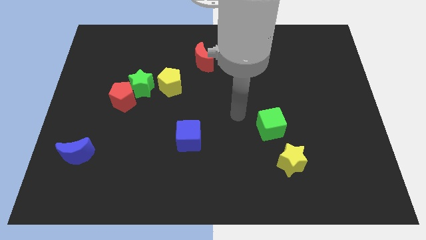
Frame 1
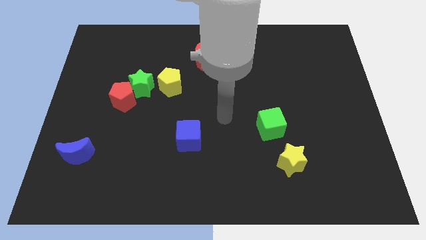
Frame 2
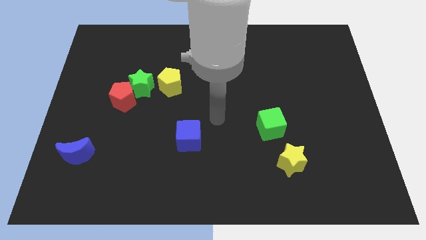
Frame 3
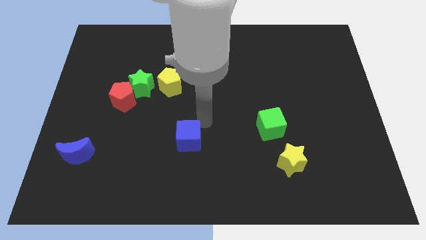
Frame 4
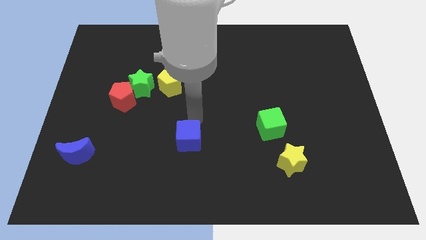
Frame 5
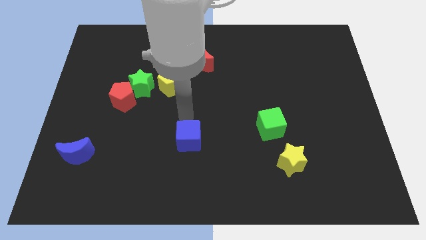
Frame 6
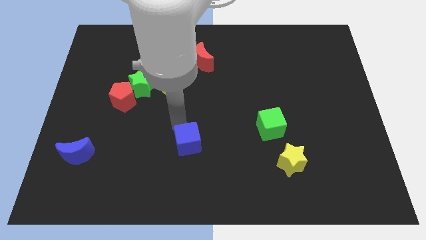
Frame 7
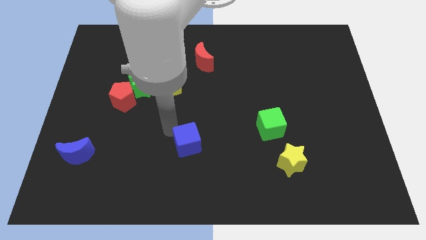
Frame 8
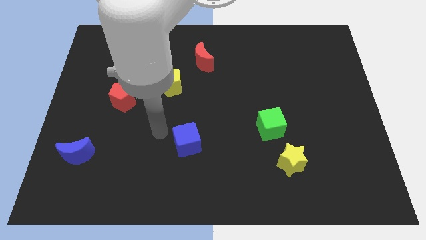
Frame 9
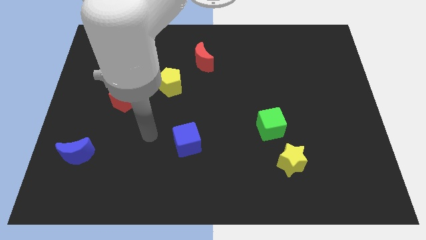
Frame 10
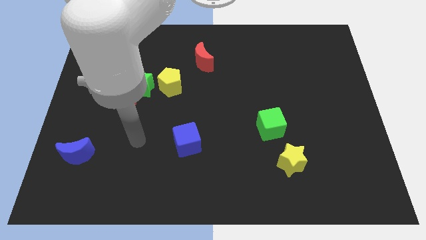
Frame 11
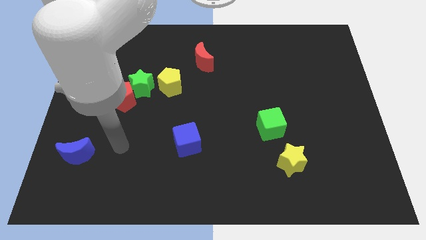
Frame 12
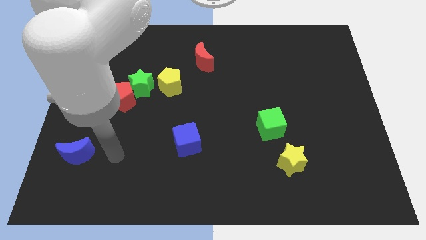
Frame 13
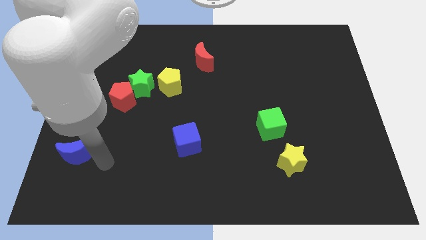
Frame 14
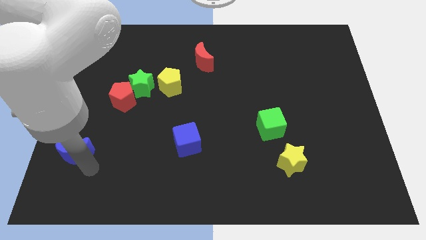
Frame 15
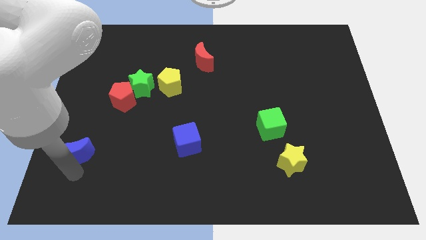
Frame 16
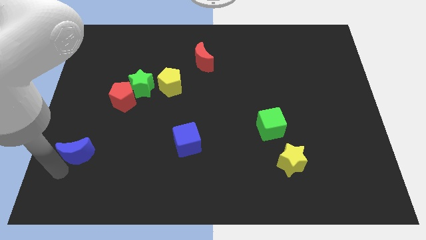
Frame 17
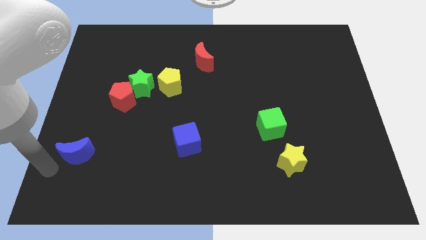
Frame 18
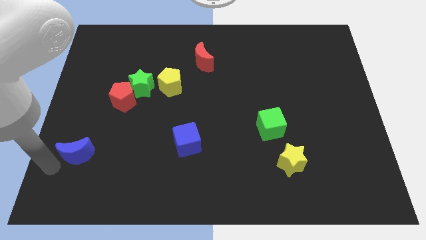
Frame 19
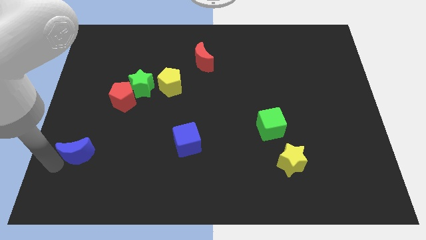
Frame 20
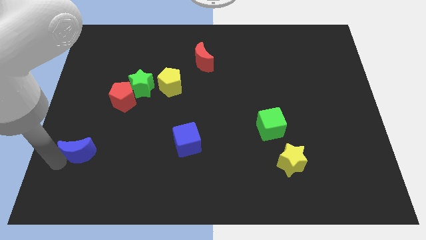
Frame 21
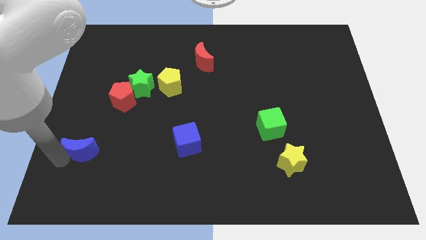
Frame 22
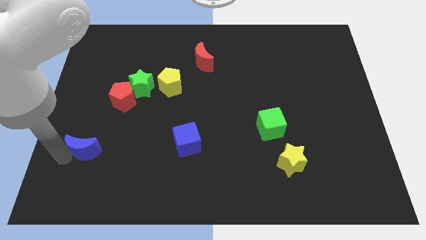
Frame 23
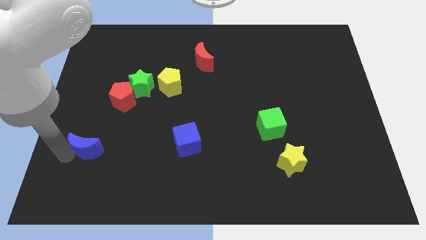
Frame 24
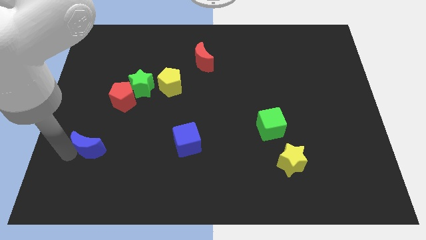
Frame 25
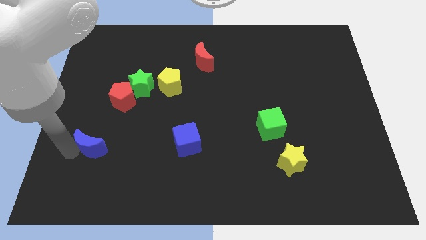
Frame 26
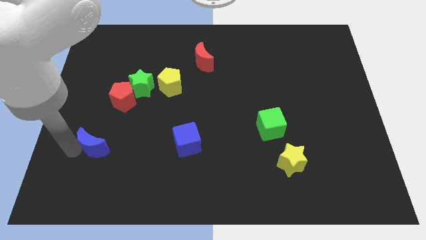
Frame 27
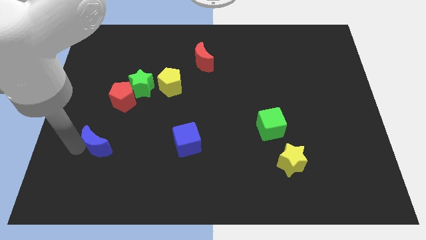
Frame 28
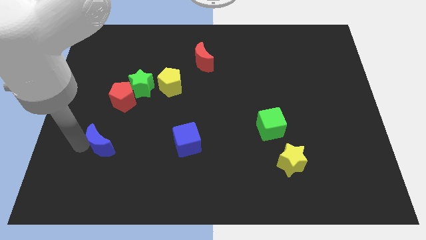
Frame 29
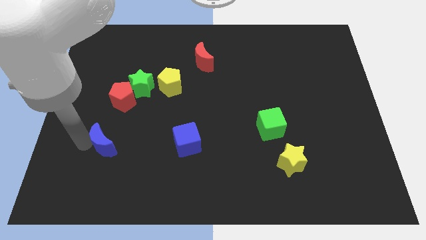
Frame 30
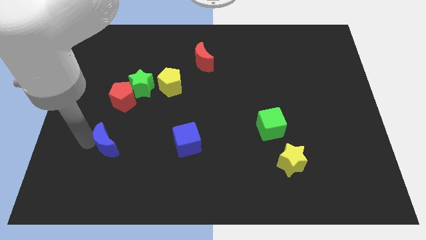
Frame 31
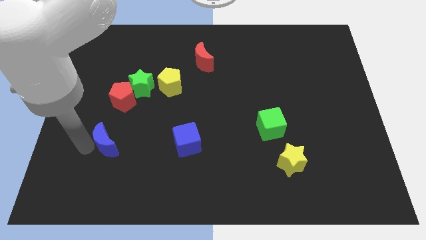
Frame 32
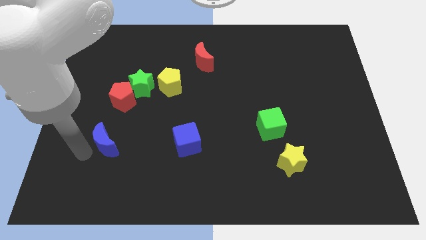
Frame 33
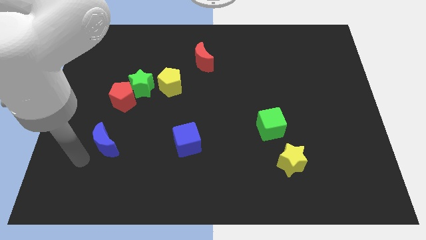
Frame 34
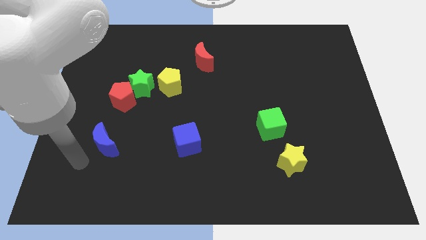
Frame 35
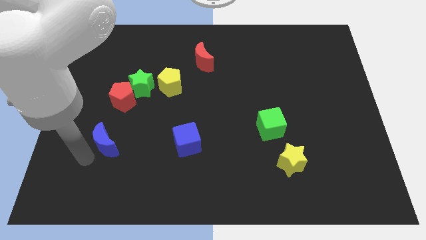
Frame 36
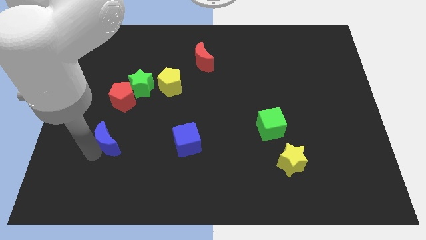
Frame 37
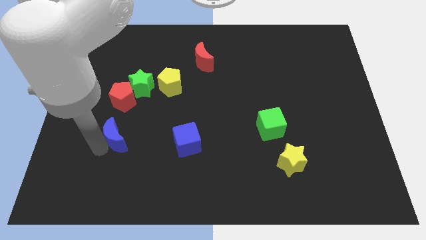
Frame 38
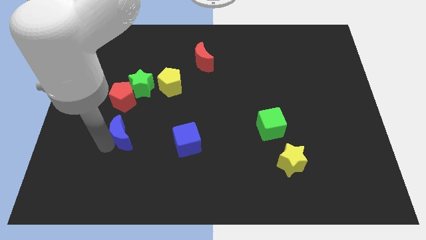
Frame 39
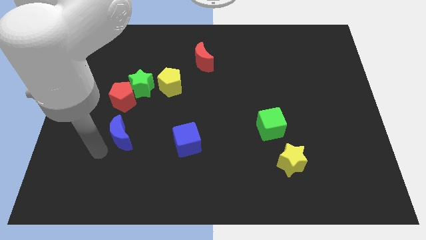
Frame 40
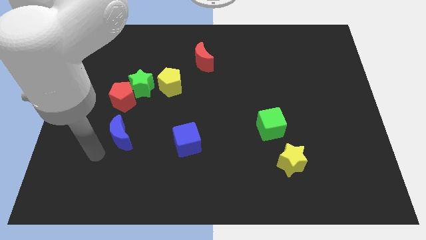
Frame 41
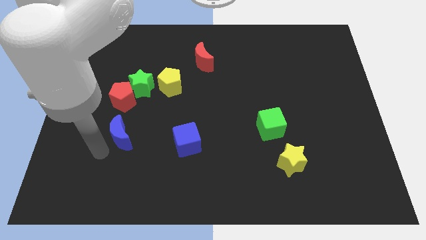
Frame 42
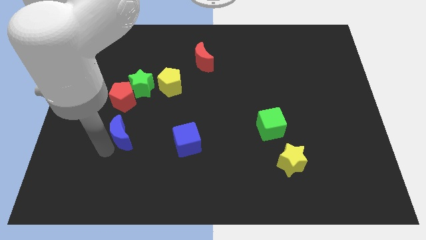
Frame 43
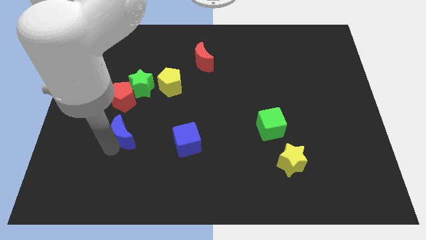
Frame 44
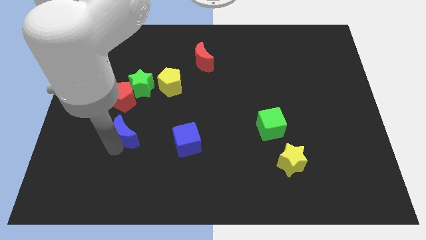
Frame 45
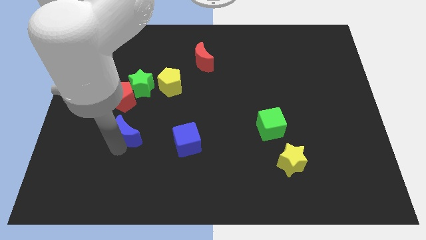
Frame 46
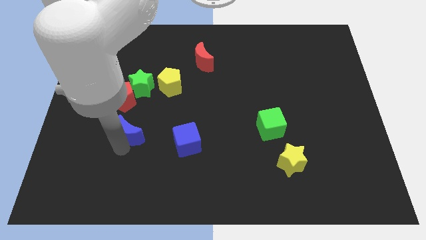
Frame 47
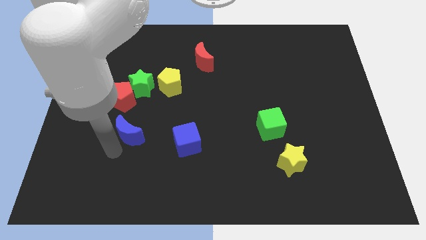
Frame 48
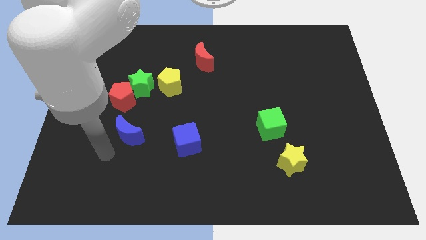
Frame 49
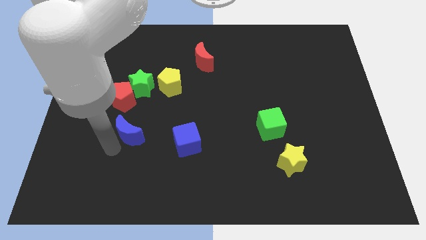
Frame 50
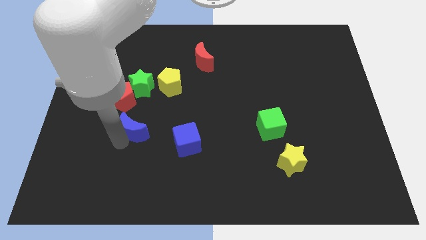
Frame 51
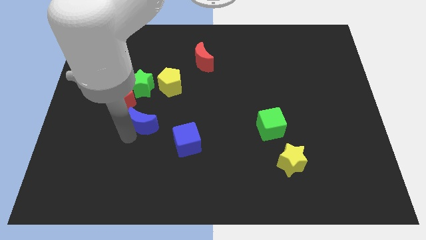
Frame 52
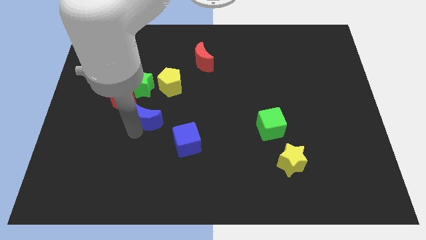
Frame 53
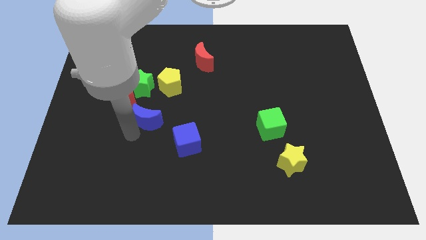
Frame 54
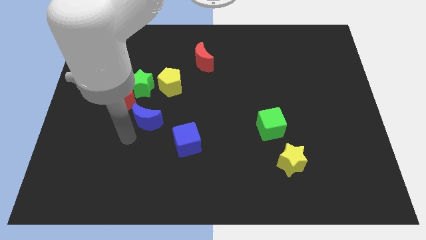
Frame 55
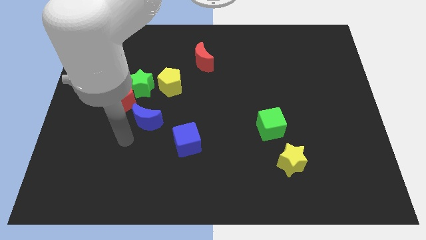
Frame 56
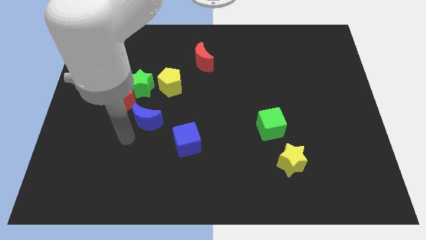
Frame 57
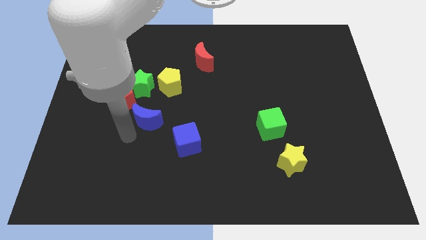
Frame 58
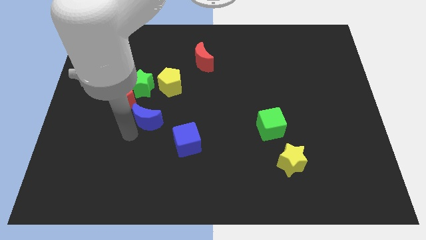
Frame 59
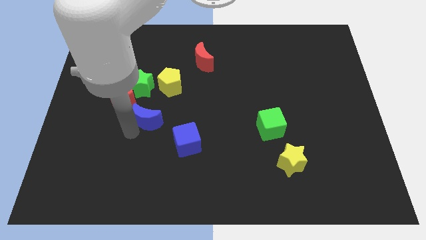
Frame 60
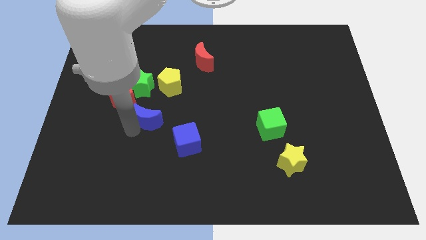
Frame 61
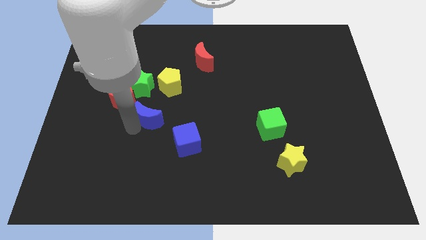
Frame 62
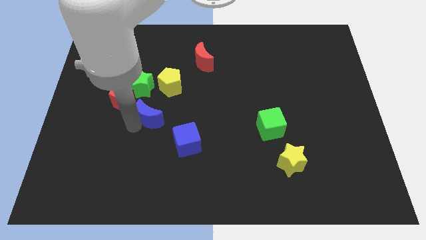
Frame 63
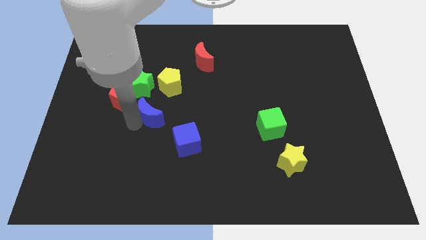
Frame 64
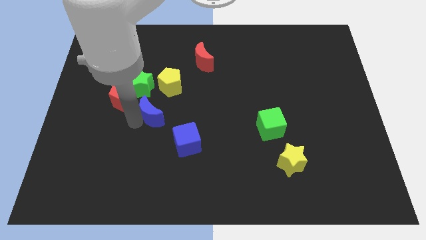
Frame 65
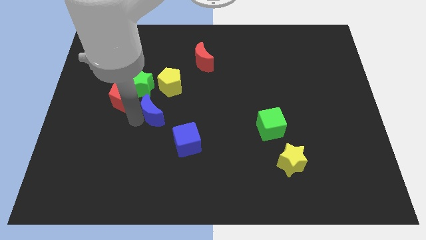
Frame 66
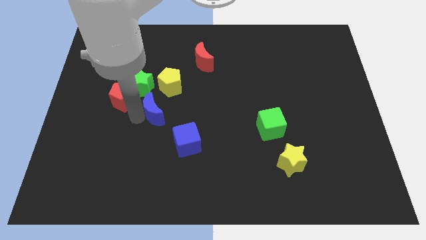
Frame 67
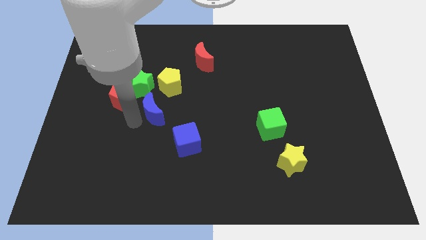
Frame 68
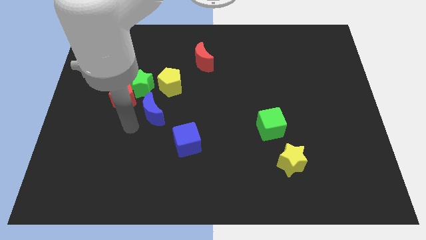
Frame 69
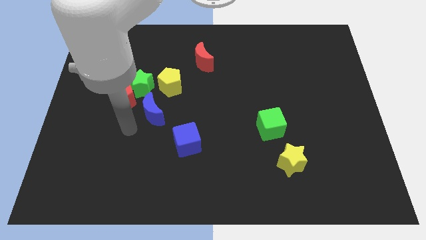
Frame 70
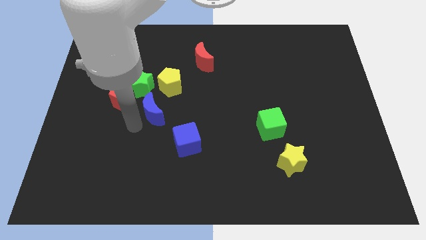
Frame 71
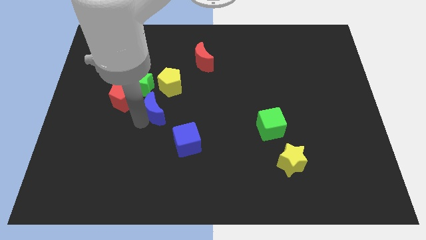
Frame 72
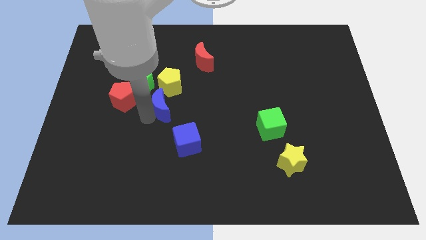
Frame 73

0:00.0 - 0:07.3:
move the blue moon diagonally upwards and right
